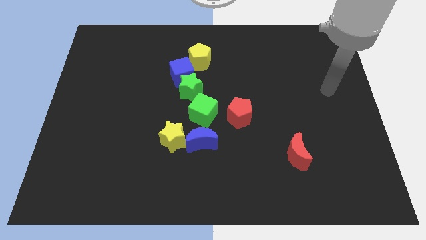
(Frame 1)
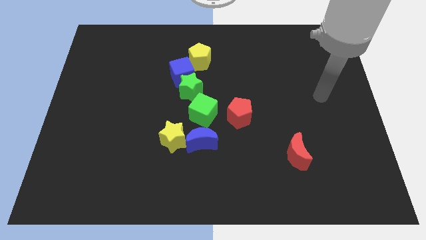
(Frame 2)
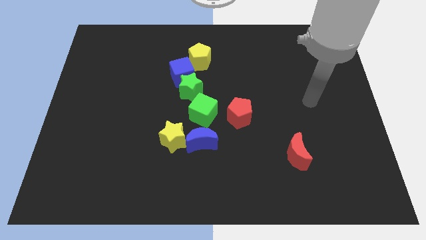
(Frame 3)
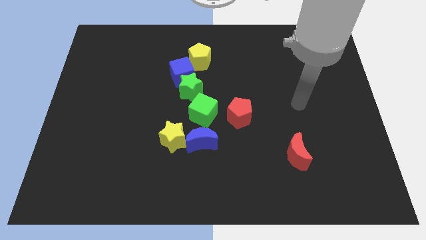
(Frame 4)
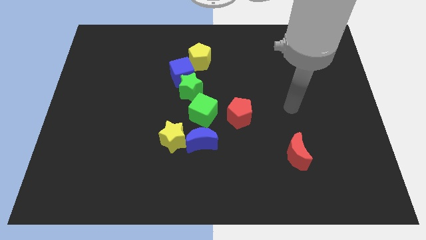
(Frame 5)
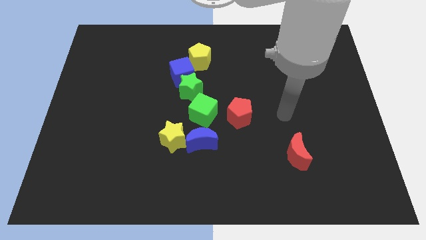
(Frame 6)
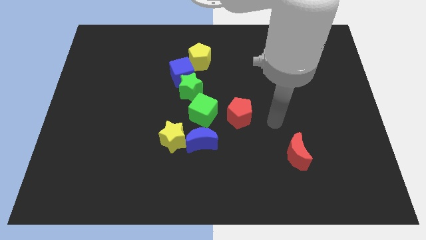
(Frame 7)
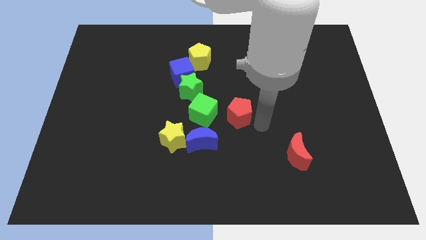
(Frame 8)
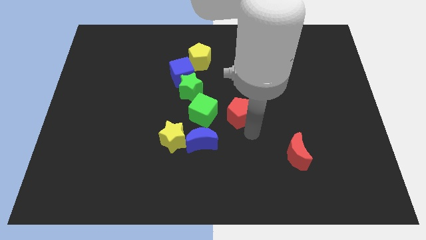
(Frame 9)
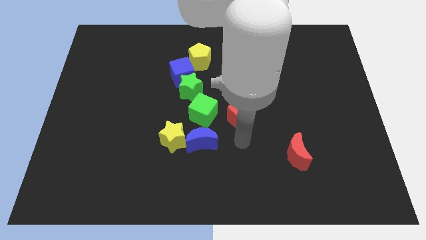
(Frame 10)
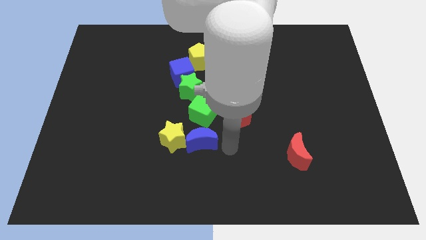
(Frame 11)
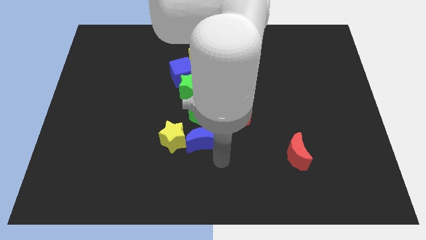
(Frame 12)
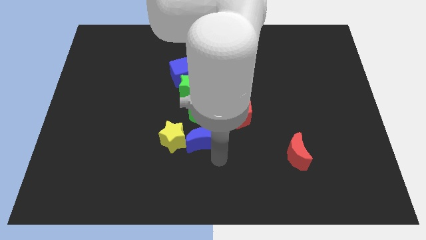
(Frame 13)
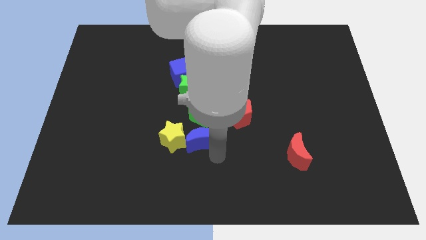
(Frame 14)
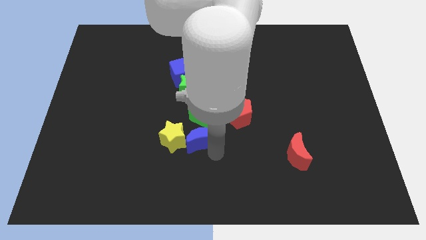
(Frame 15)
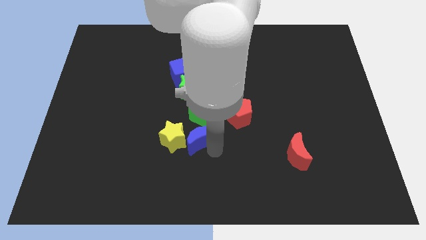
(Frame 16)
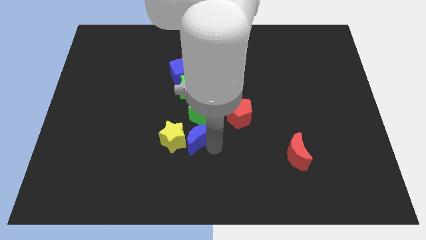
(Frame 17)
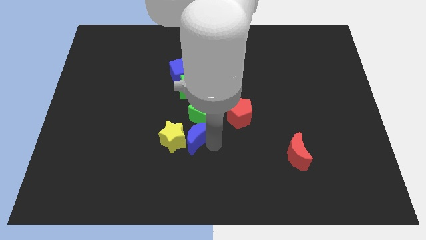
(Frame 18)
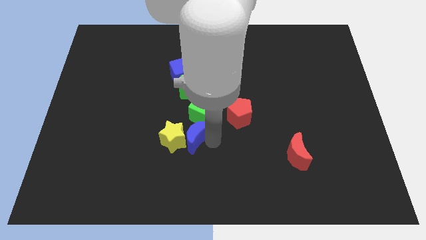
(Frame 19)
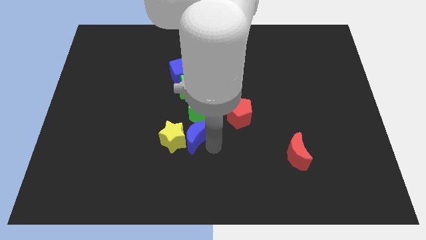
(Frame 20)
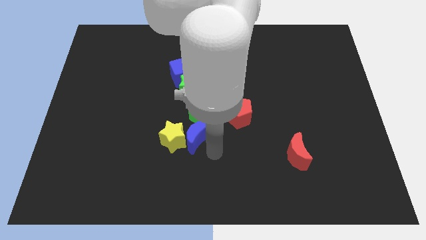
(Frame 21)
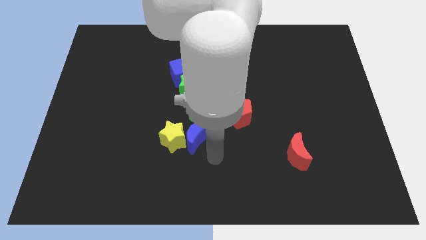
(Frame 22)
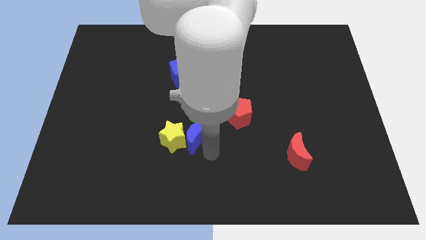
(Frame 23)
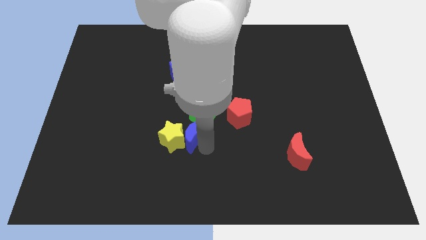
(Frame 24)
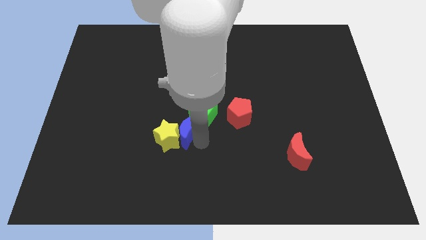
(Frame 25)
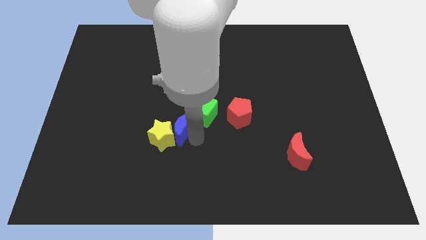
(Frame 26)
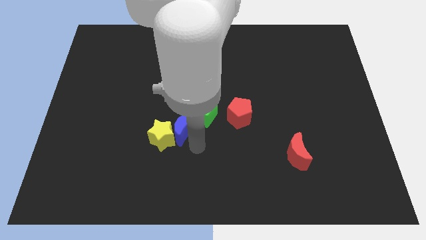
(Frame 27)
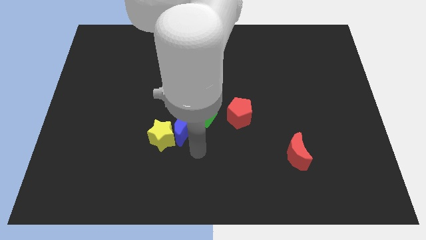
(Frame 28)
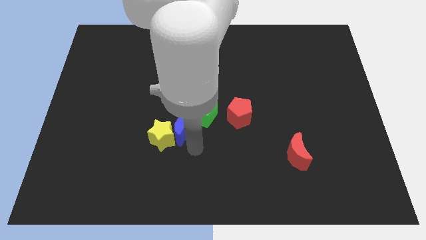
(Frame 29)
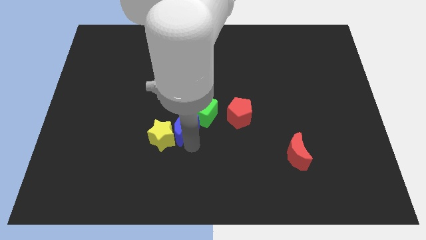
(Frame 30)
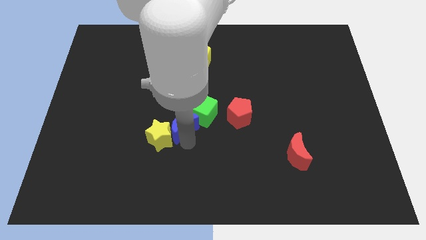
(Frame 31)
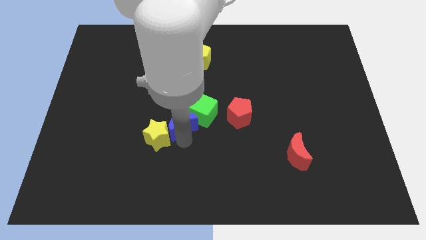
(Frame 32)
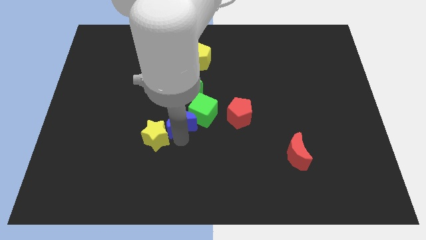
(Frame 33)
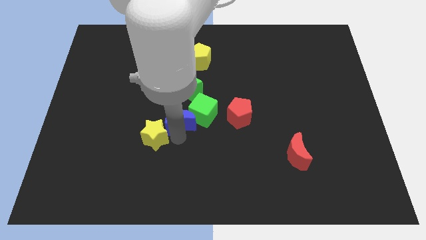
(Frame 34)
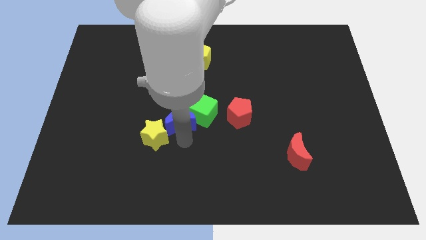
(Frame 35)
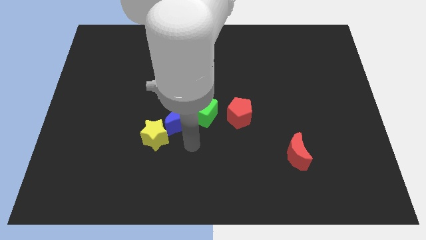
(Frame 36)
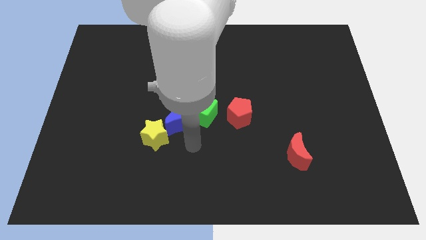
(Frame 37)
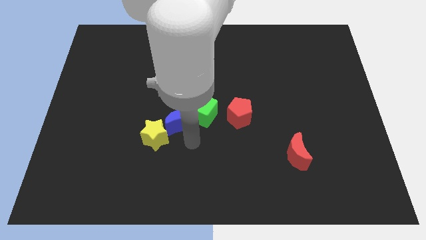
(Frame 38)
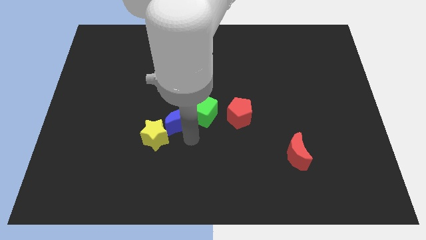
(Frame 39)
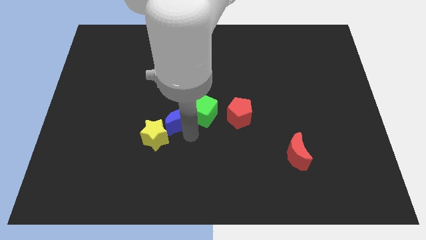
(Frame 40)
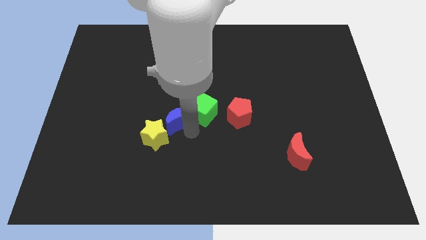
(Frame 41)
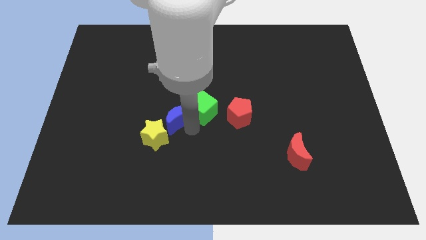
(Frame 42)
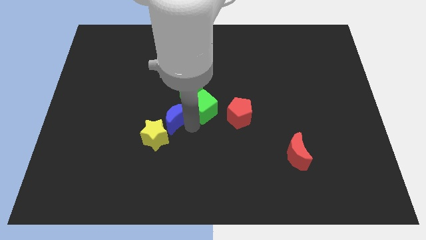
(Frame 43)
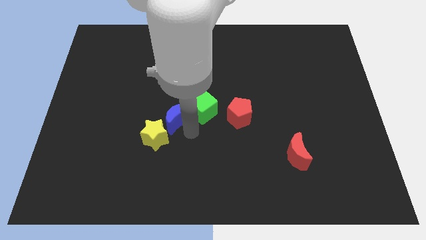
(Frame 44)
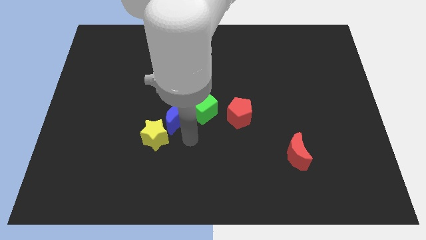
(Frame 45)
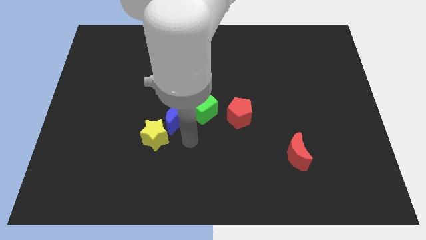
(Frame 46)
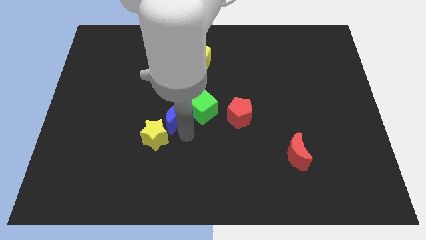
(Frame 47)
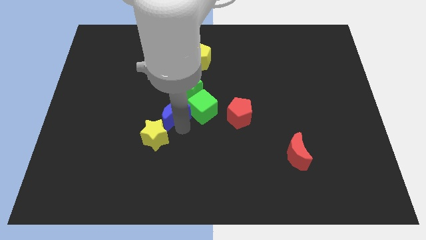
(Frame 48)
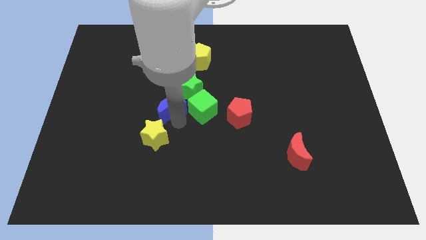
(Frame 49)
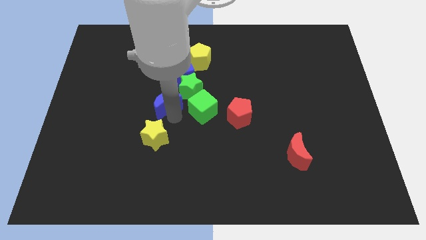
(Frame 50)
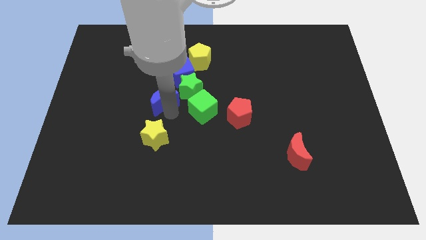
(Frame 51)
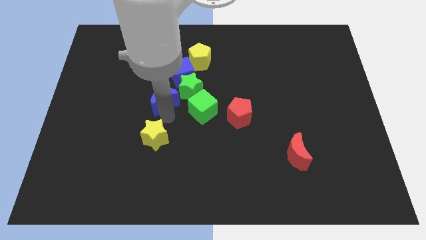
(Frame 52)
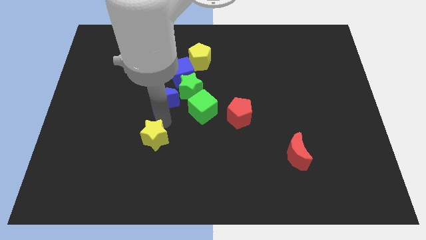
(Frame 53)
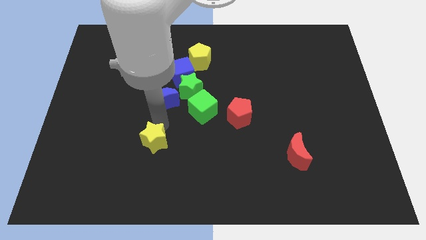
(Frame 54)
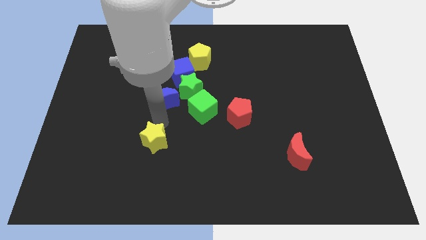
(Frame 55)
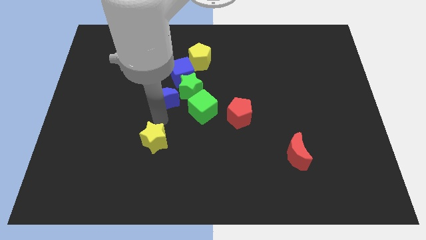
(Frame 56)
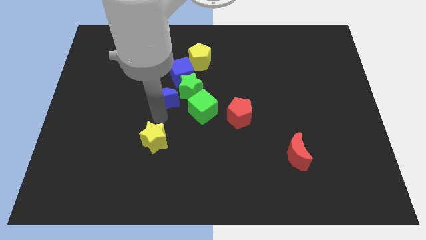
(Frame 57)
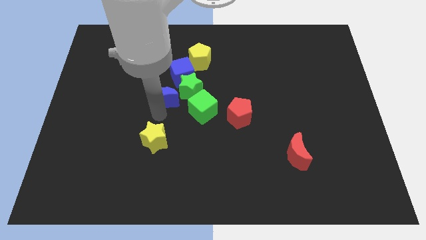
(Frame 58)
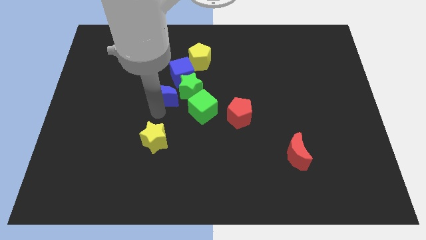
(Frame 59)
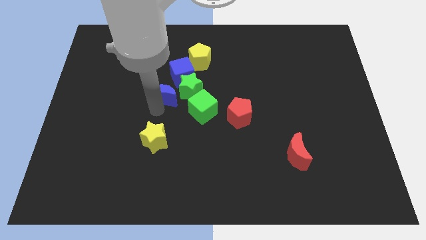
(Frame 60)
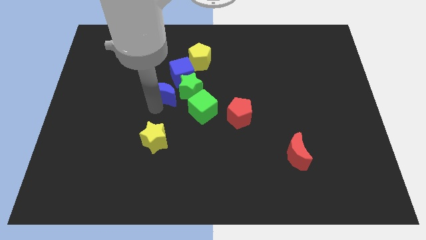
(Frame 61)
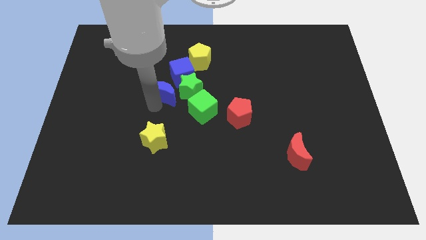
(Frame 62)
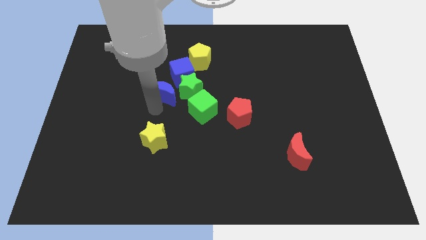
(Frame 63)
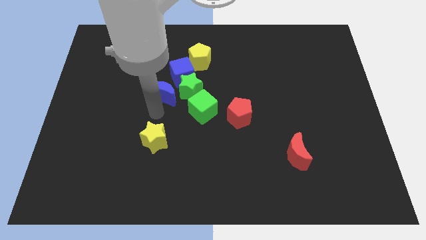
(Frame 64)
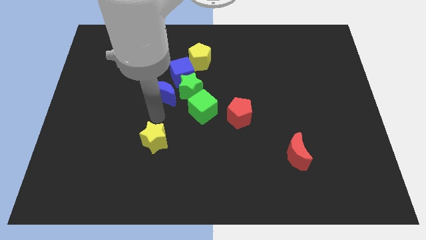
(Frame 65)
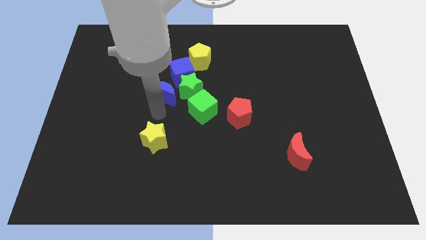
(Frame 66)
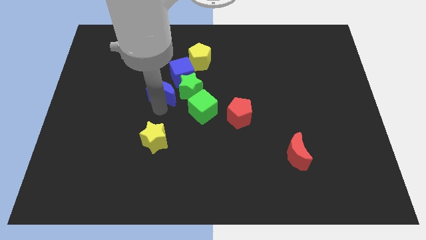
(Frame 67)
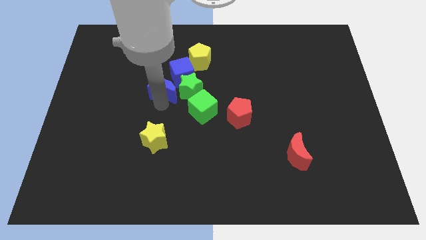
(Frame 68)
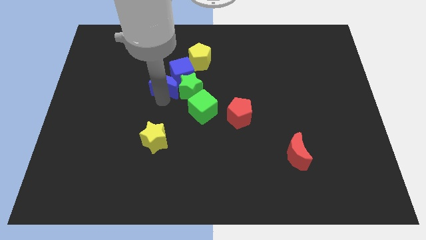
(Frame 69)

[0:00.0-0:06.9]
slide the blue moon diagonally down and to the left of the yellow pentagon

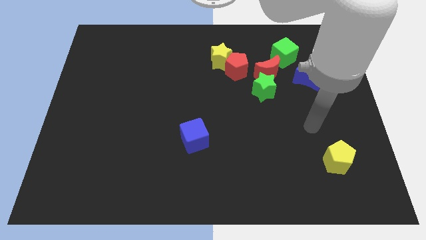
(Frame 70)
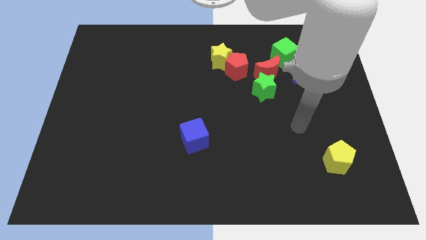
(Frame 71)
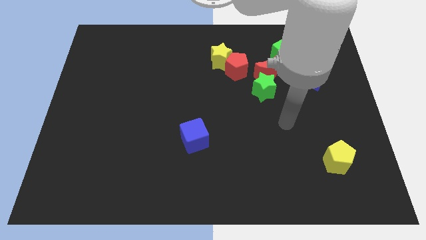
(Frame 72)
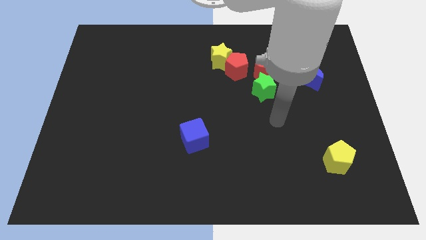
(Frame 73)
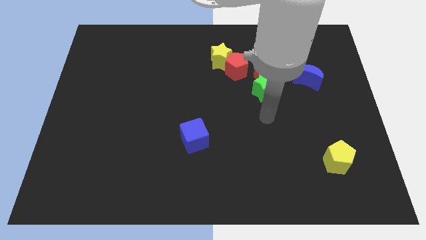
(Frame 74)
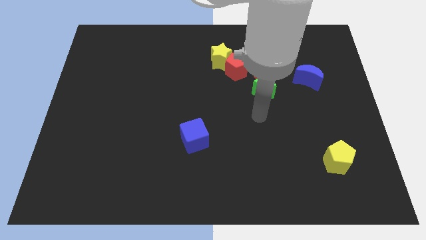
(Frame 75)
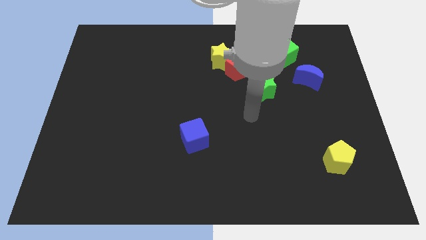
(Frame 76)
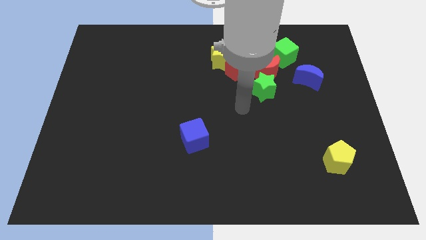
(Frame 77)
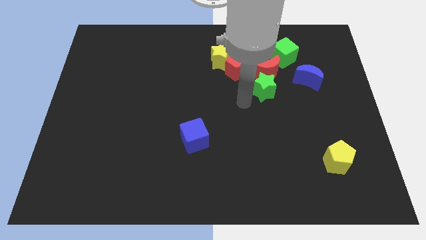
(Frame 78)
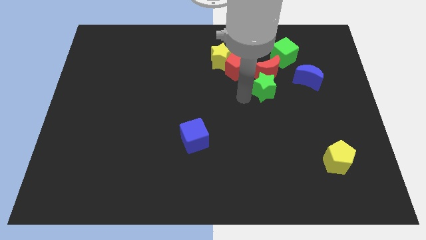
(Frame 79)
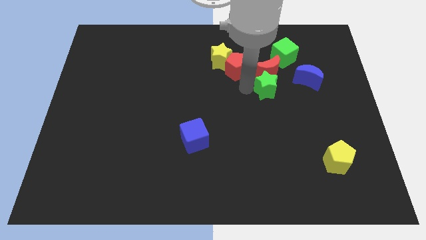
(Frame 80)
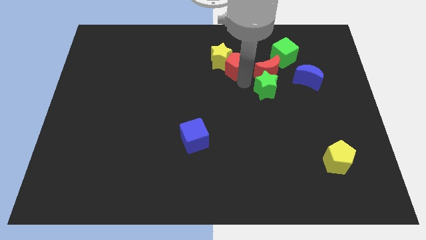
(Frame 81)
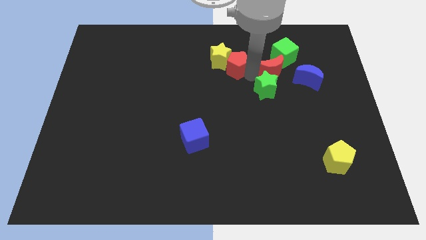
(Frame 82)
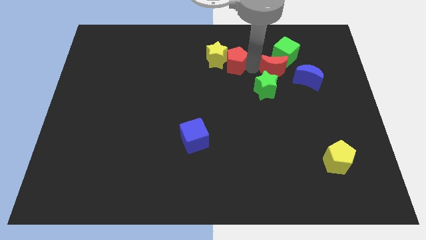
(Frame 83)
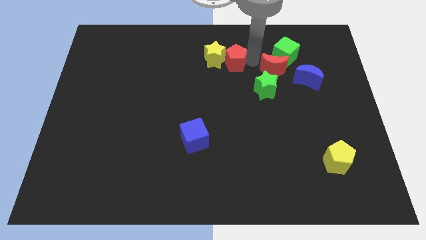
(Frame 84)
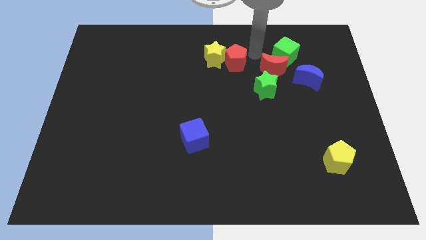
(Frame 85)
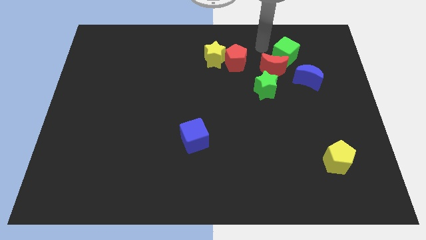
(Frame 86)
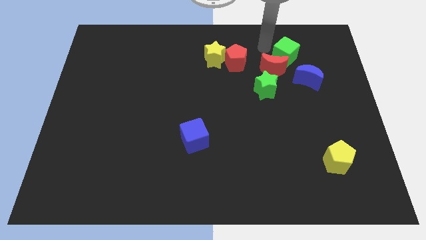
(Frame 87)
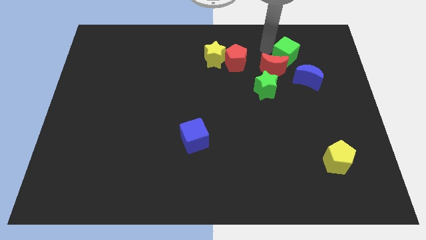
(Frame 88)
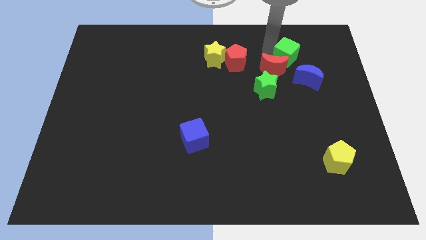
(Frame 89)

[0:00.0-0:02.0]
push the green cube right of the red moon
